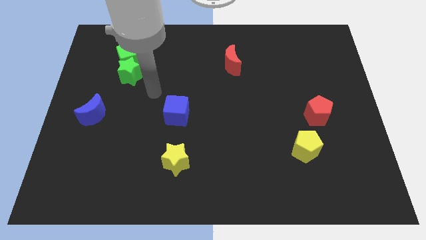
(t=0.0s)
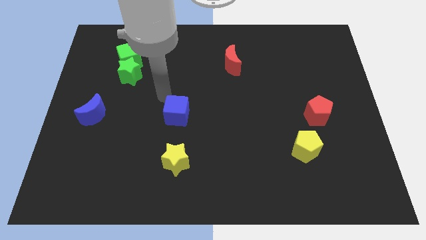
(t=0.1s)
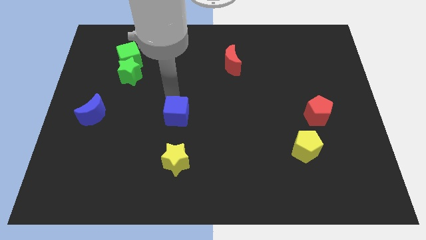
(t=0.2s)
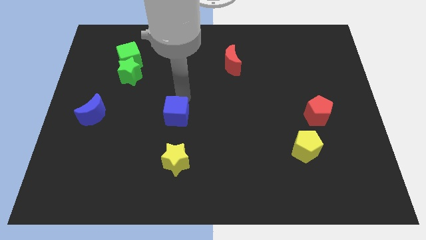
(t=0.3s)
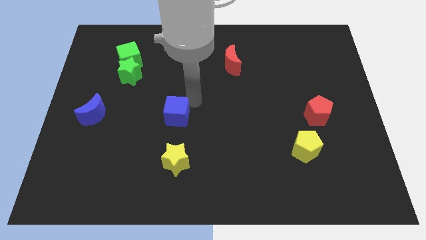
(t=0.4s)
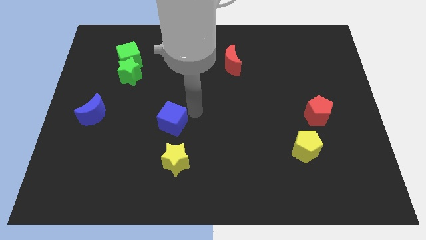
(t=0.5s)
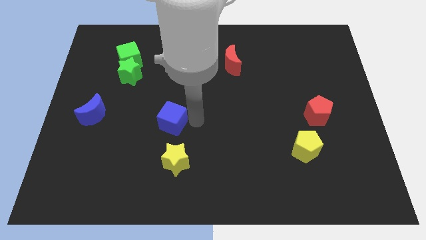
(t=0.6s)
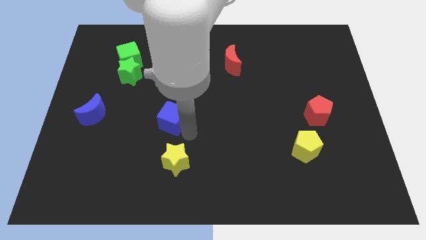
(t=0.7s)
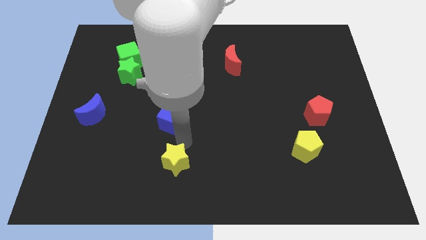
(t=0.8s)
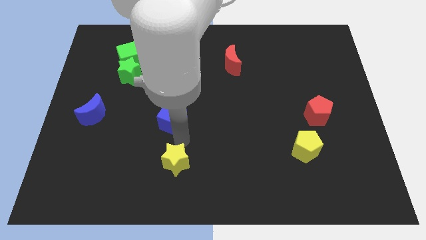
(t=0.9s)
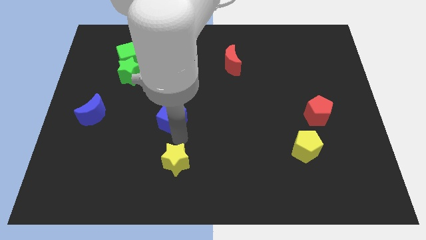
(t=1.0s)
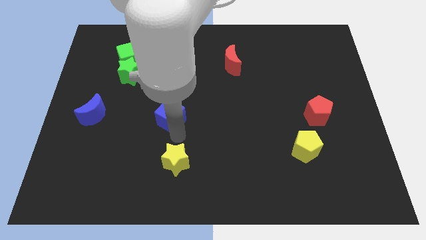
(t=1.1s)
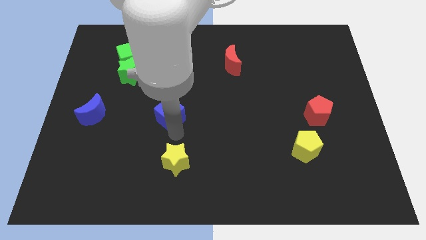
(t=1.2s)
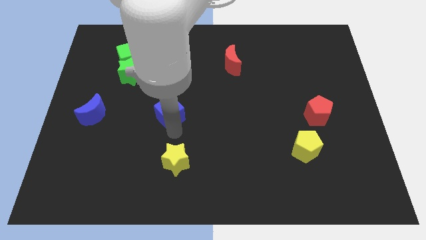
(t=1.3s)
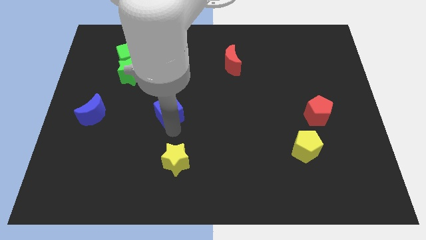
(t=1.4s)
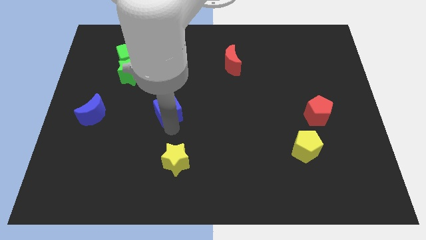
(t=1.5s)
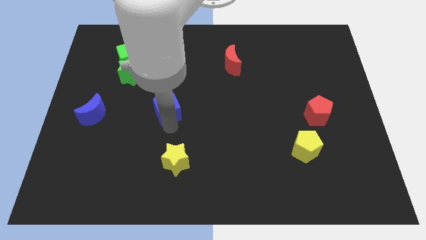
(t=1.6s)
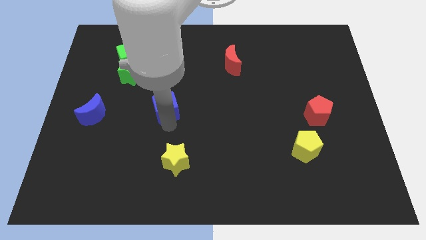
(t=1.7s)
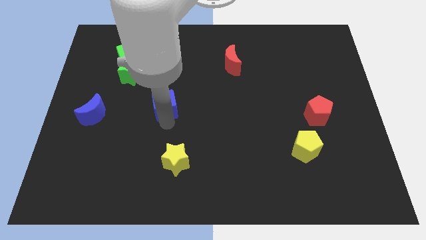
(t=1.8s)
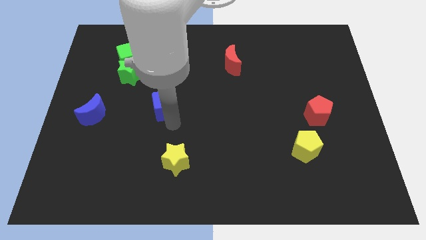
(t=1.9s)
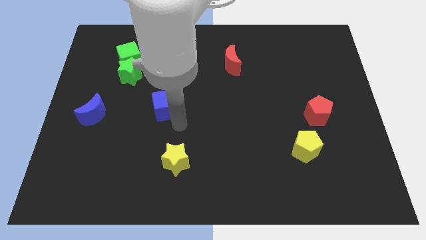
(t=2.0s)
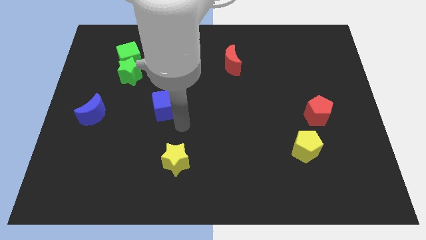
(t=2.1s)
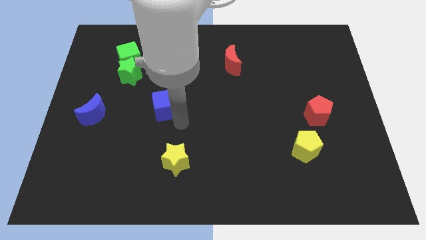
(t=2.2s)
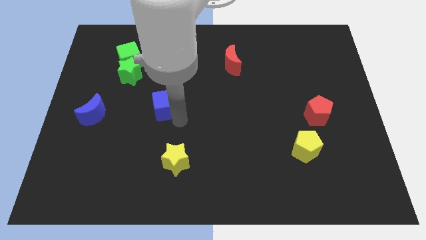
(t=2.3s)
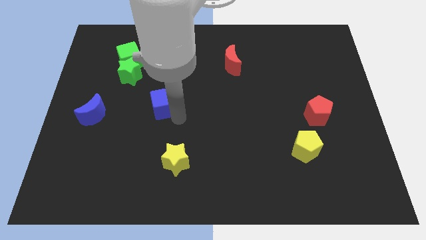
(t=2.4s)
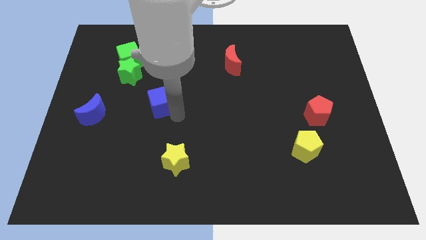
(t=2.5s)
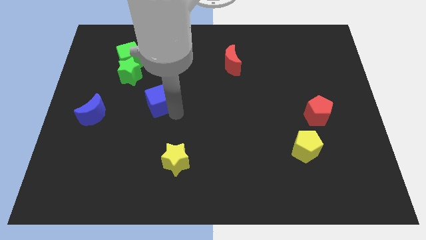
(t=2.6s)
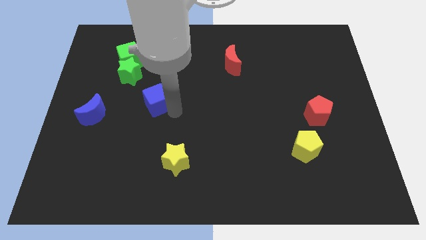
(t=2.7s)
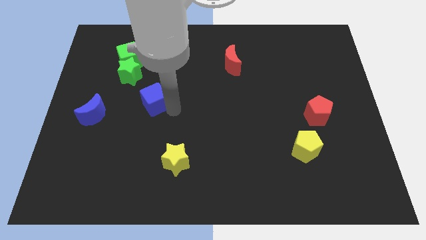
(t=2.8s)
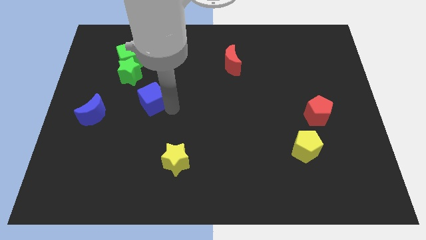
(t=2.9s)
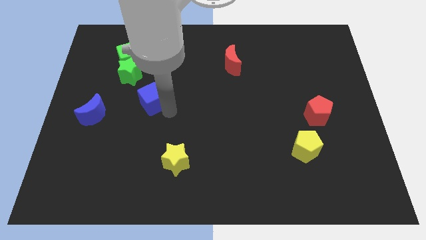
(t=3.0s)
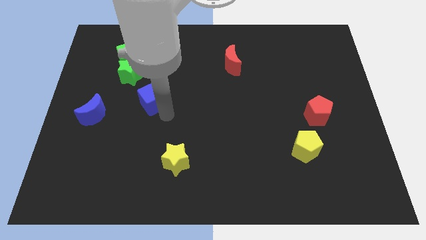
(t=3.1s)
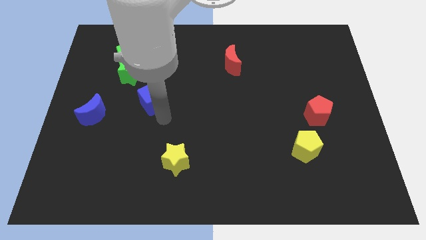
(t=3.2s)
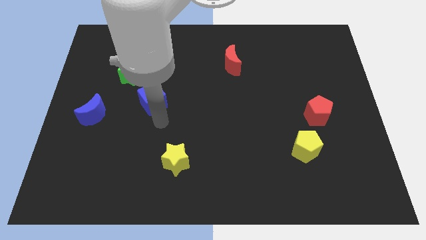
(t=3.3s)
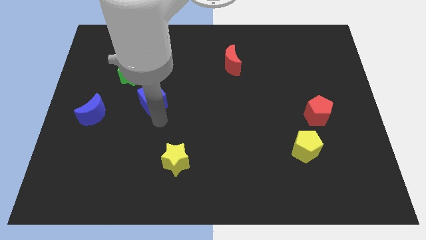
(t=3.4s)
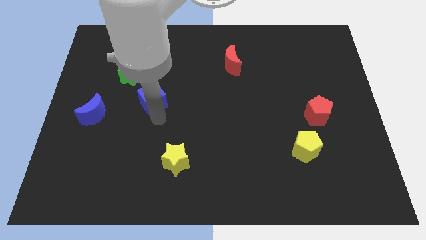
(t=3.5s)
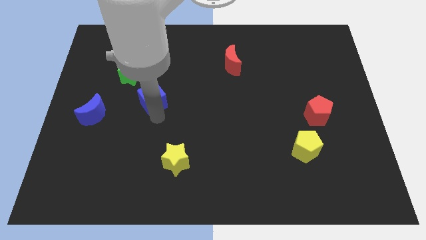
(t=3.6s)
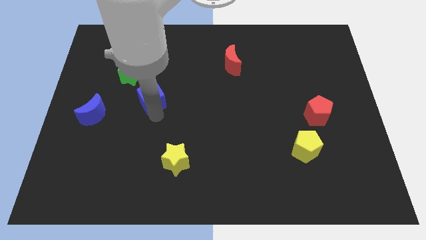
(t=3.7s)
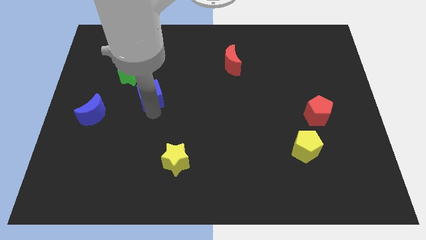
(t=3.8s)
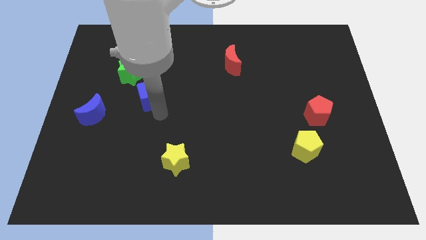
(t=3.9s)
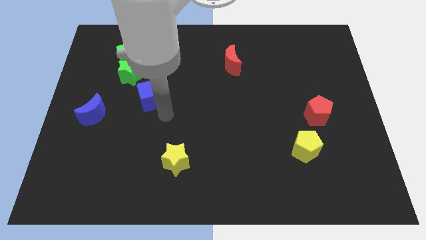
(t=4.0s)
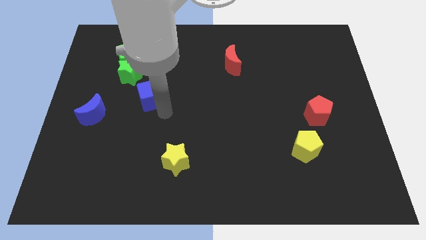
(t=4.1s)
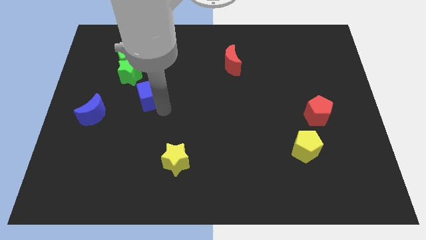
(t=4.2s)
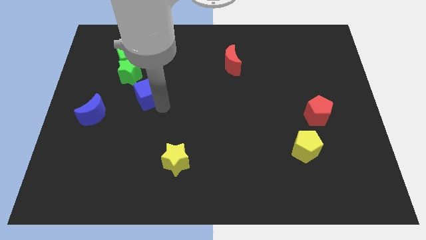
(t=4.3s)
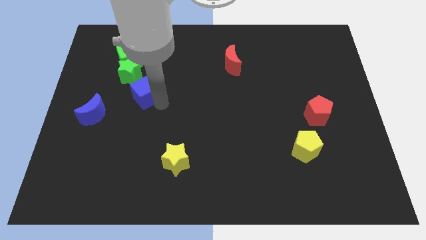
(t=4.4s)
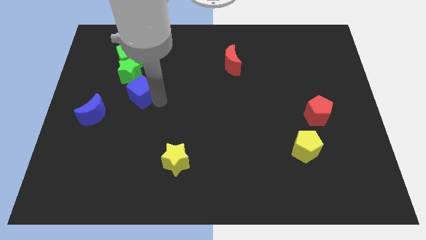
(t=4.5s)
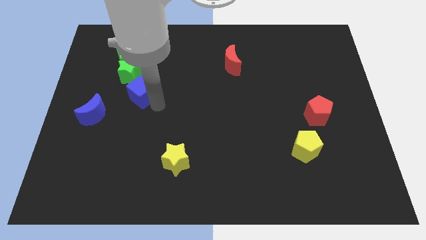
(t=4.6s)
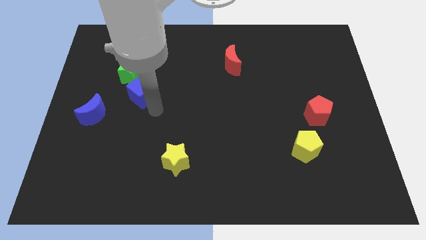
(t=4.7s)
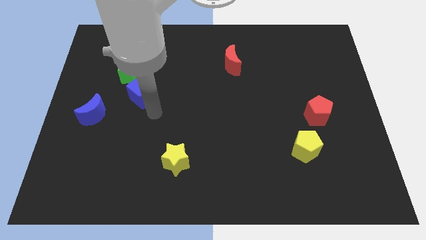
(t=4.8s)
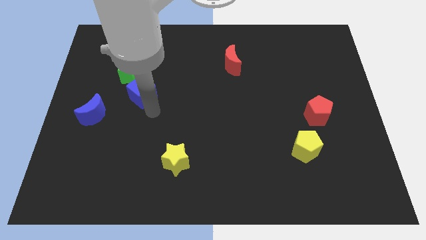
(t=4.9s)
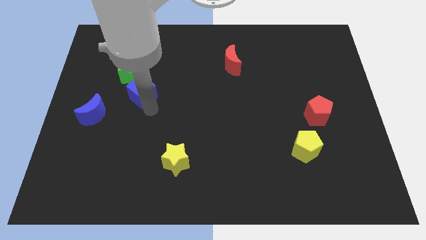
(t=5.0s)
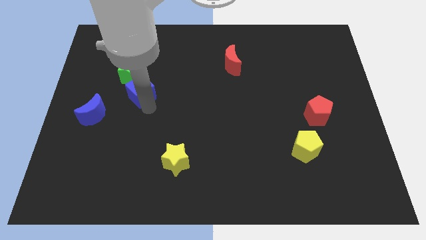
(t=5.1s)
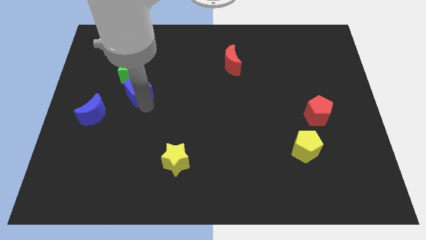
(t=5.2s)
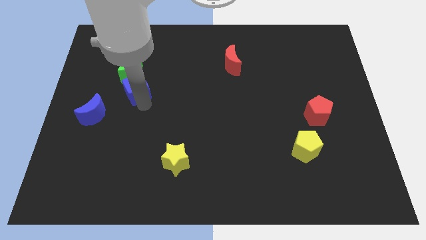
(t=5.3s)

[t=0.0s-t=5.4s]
put the blue cube towards the green star

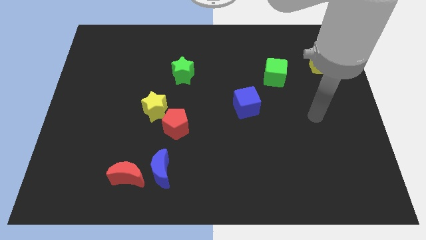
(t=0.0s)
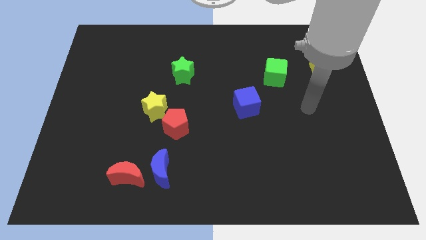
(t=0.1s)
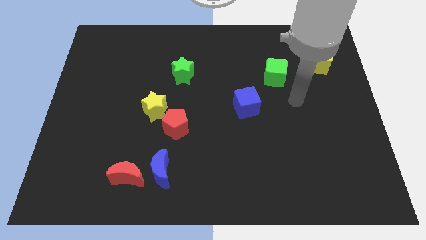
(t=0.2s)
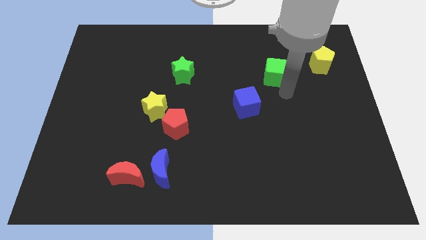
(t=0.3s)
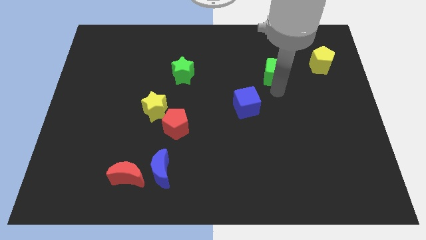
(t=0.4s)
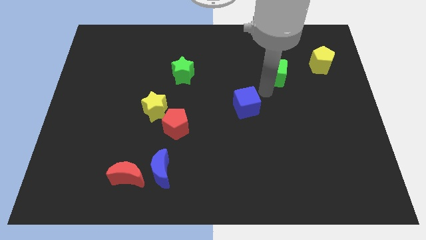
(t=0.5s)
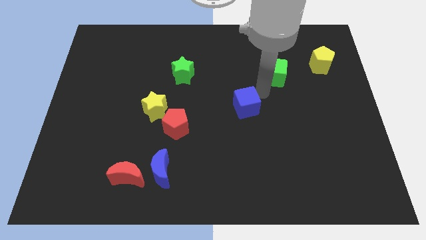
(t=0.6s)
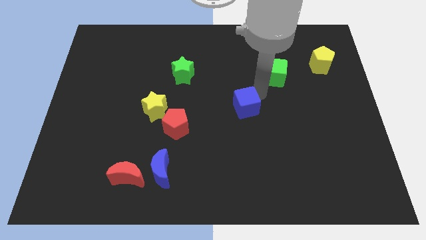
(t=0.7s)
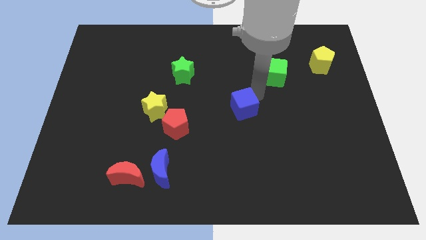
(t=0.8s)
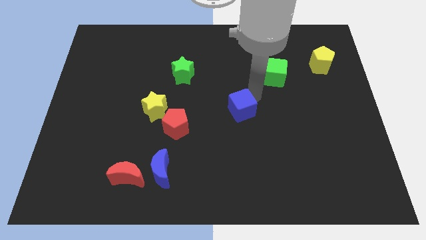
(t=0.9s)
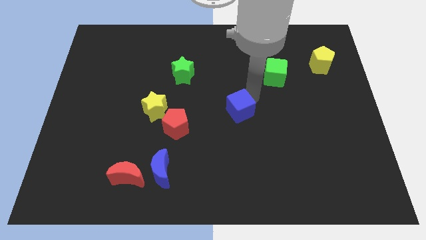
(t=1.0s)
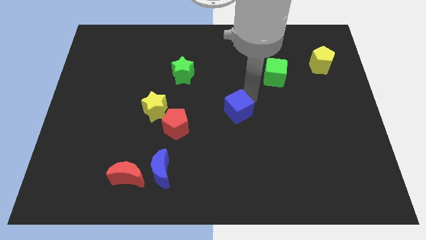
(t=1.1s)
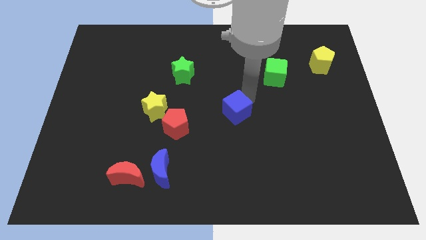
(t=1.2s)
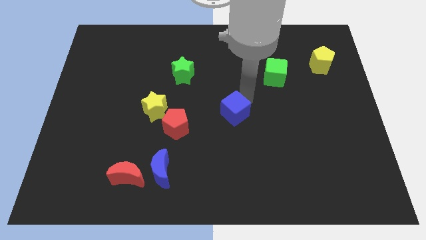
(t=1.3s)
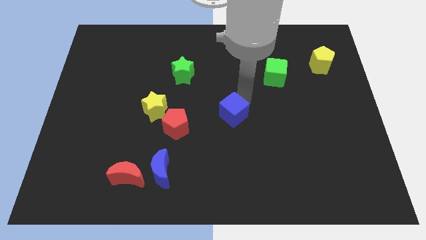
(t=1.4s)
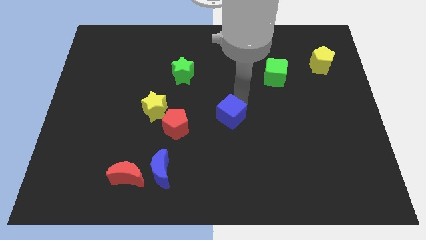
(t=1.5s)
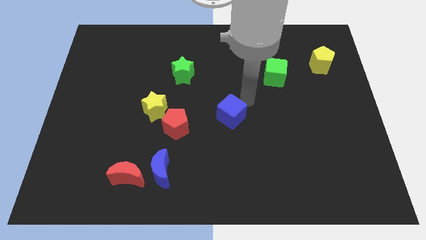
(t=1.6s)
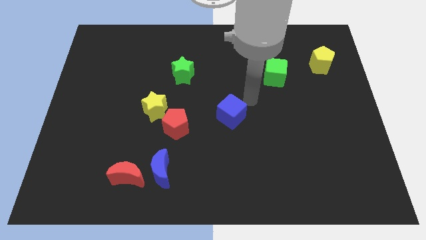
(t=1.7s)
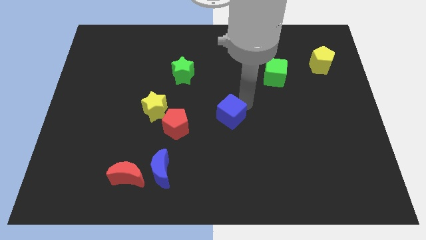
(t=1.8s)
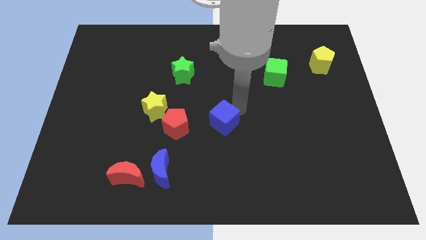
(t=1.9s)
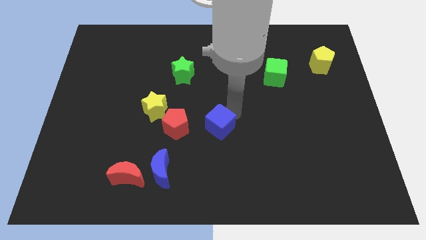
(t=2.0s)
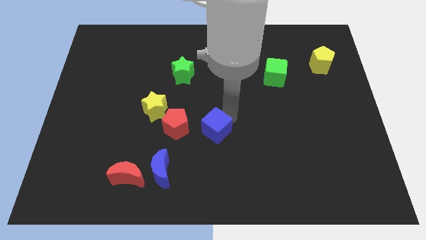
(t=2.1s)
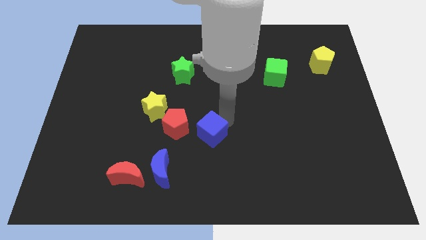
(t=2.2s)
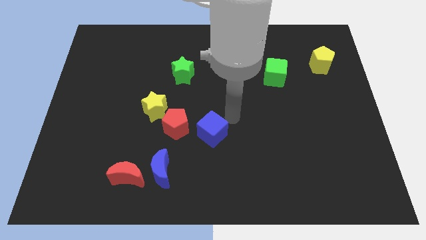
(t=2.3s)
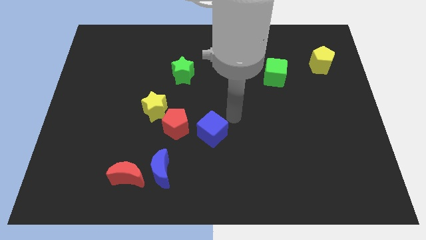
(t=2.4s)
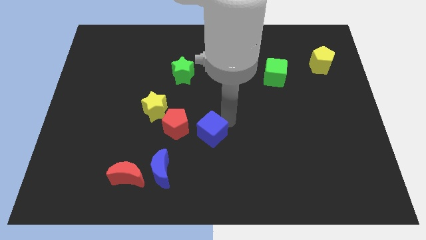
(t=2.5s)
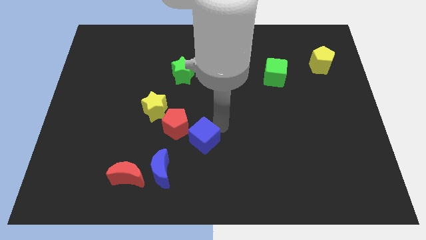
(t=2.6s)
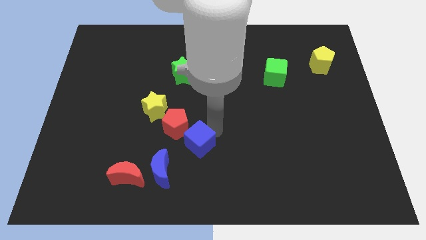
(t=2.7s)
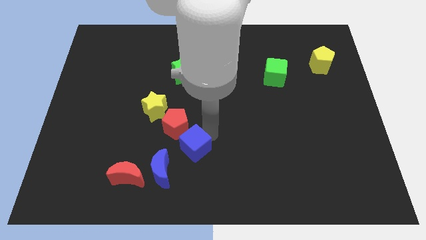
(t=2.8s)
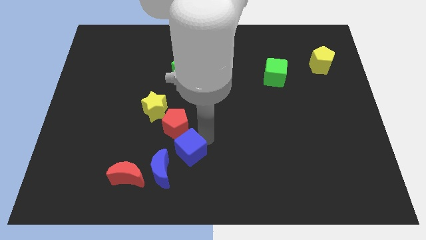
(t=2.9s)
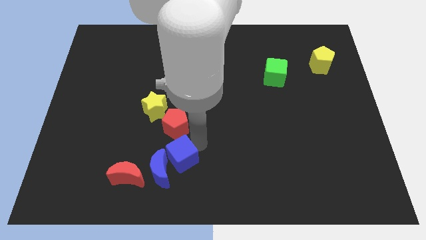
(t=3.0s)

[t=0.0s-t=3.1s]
put the blue cube close to the blue moon
